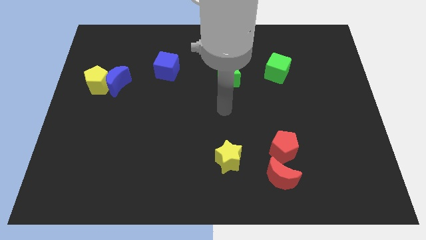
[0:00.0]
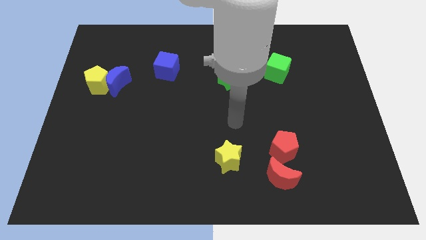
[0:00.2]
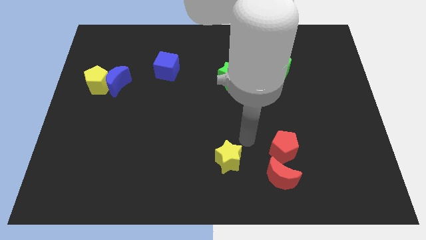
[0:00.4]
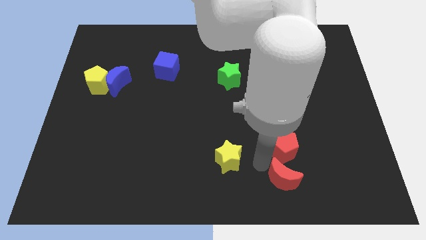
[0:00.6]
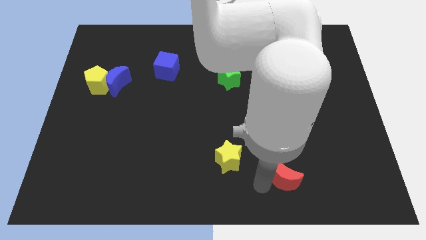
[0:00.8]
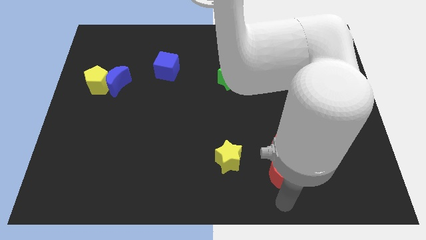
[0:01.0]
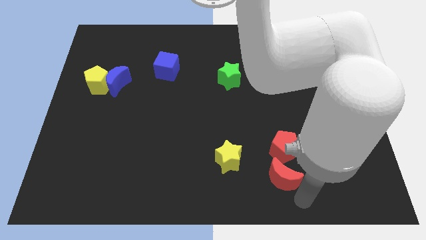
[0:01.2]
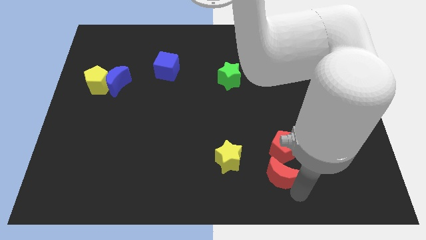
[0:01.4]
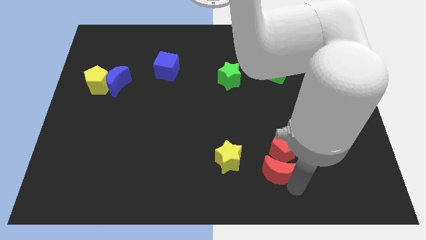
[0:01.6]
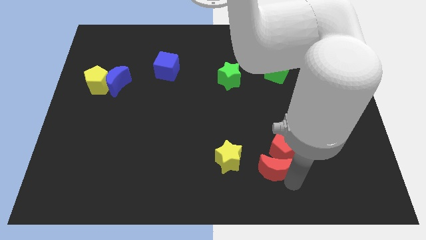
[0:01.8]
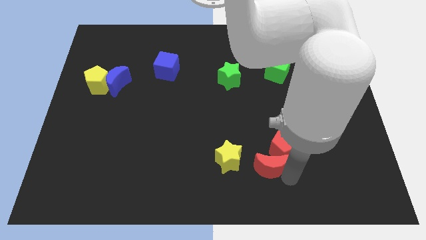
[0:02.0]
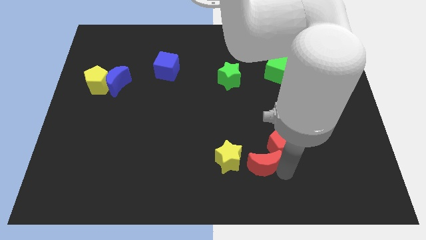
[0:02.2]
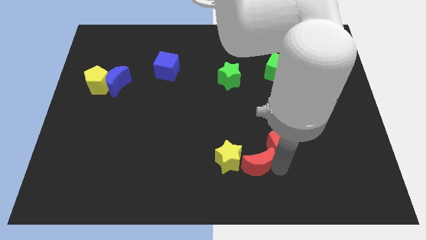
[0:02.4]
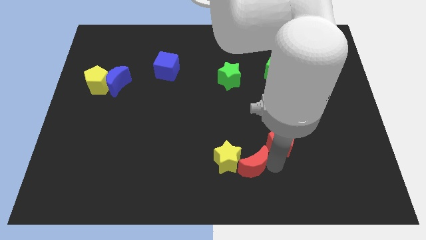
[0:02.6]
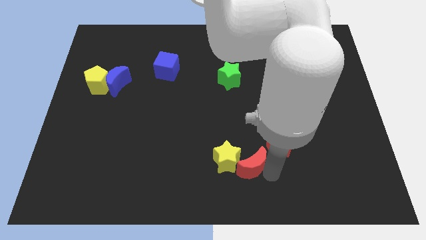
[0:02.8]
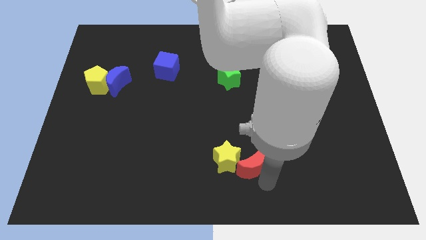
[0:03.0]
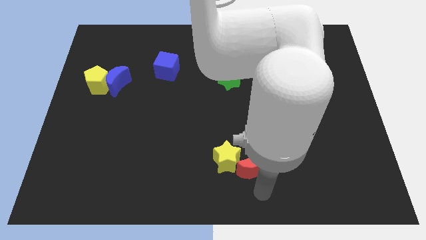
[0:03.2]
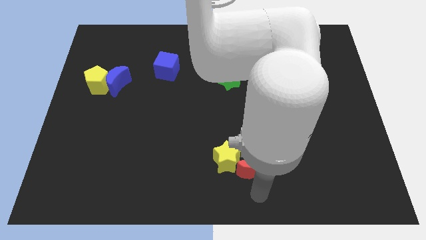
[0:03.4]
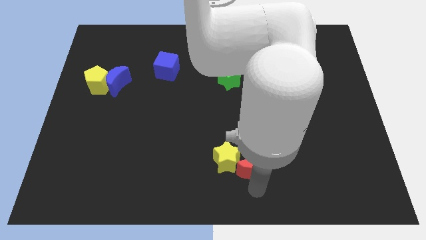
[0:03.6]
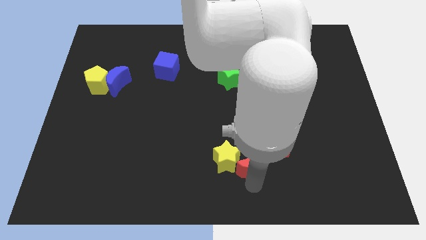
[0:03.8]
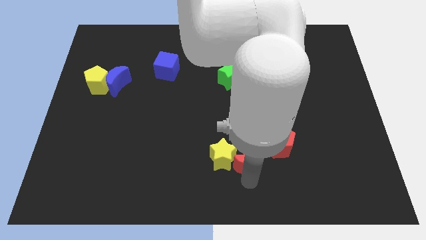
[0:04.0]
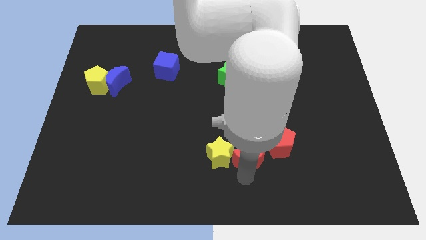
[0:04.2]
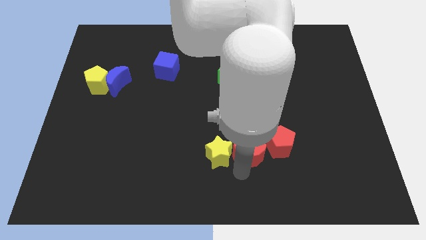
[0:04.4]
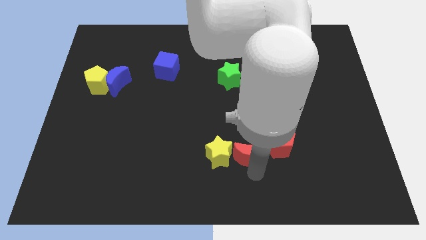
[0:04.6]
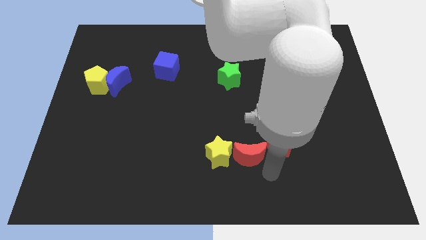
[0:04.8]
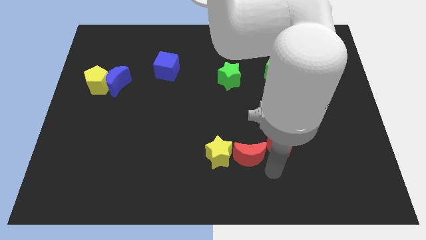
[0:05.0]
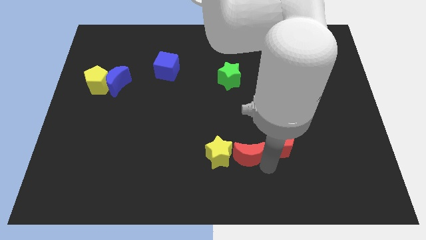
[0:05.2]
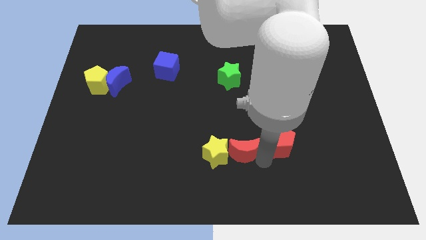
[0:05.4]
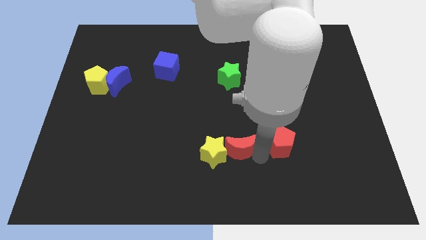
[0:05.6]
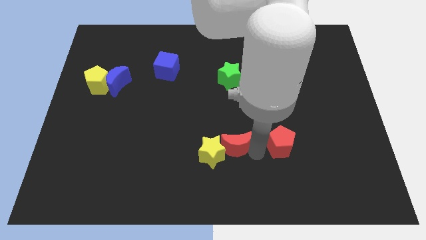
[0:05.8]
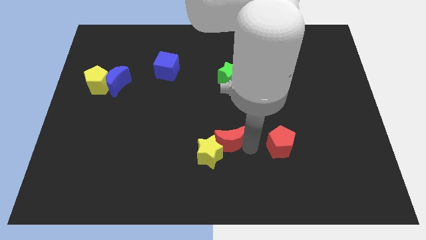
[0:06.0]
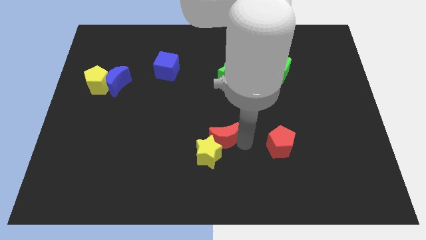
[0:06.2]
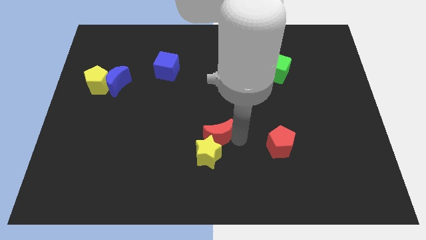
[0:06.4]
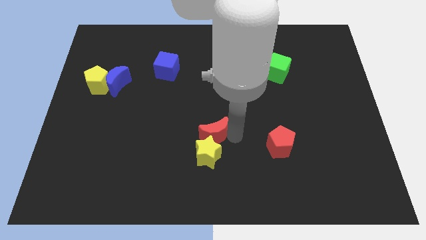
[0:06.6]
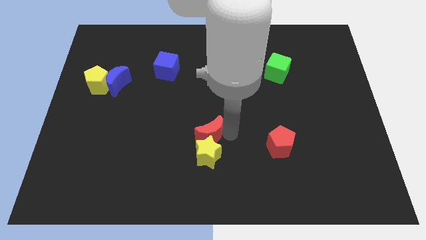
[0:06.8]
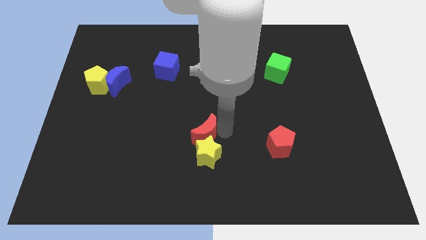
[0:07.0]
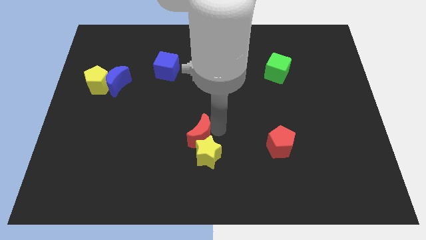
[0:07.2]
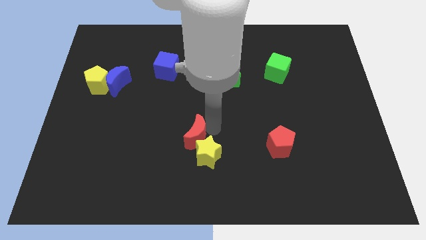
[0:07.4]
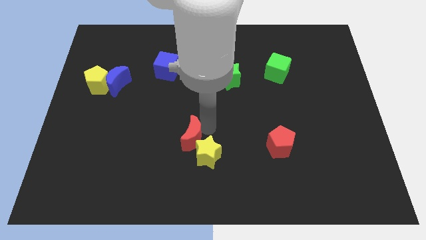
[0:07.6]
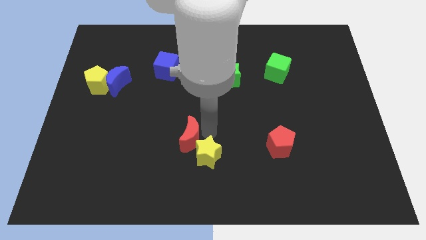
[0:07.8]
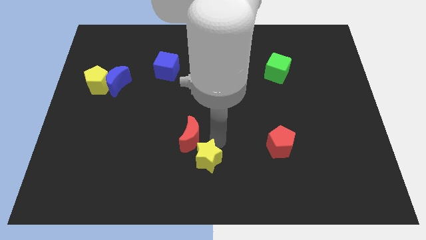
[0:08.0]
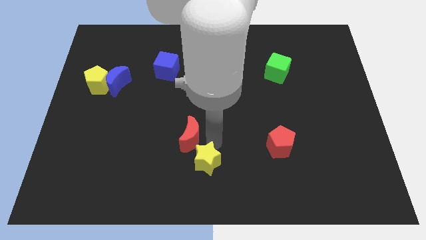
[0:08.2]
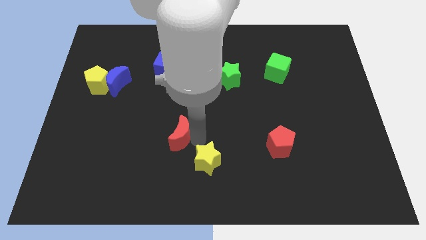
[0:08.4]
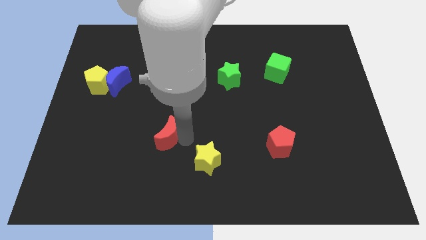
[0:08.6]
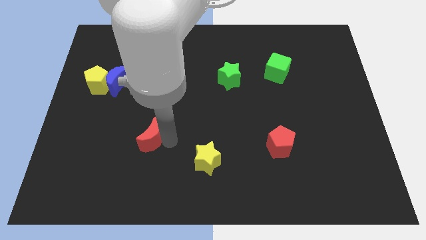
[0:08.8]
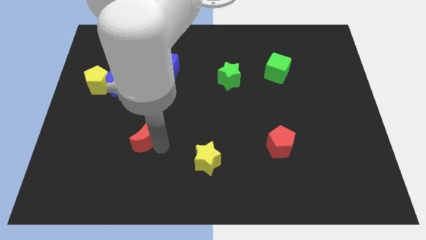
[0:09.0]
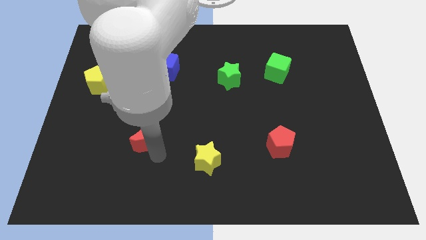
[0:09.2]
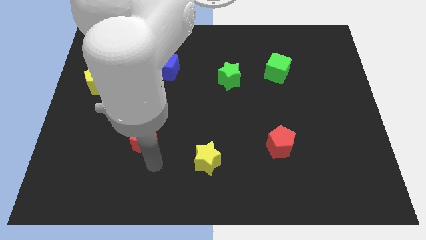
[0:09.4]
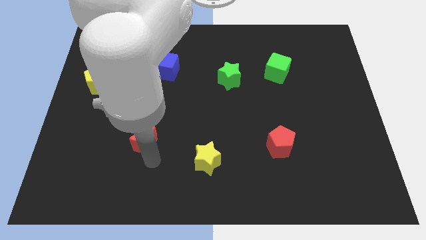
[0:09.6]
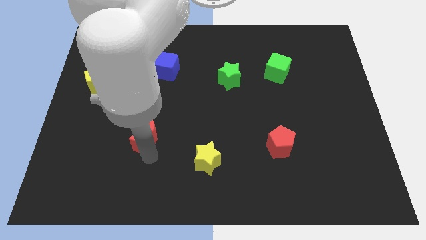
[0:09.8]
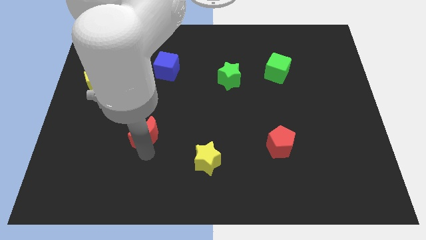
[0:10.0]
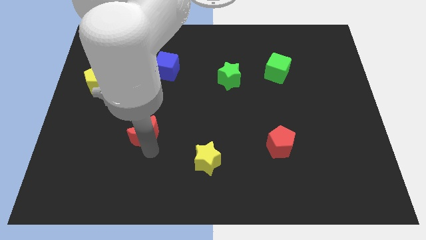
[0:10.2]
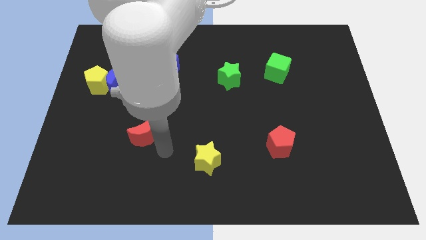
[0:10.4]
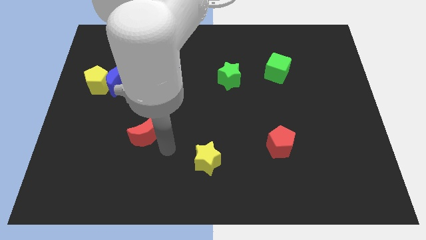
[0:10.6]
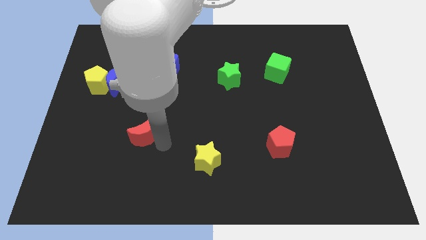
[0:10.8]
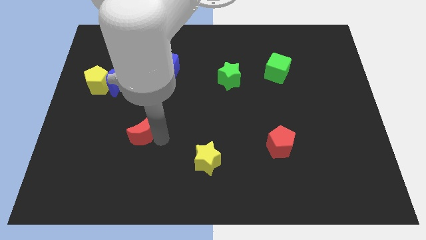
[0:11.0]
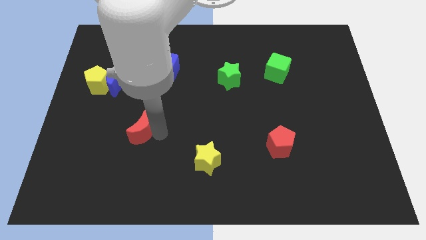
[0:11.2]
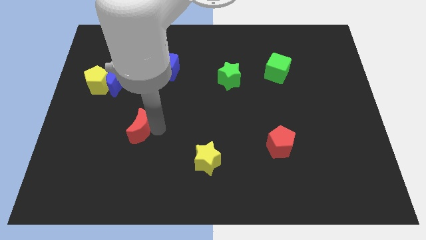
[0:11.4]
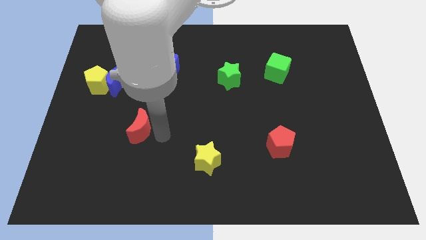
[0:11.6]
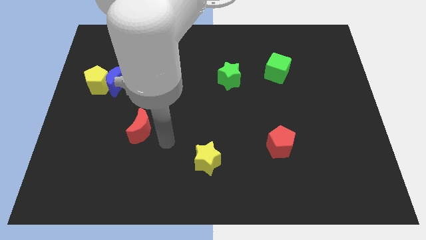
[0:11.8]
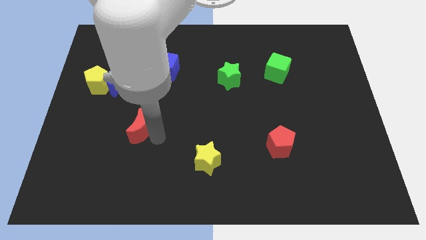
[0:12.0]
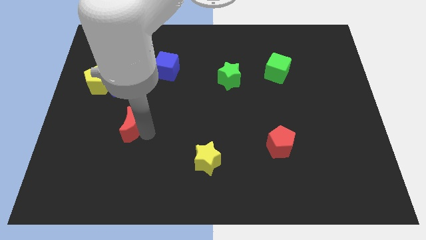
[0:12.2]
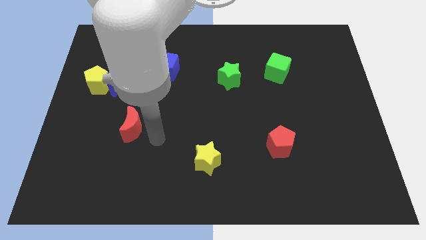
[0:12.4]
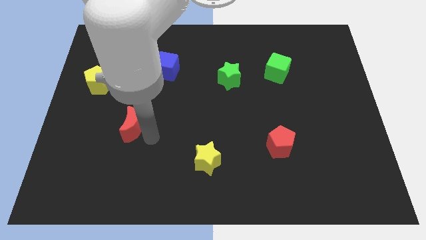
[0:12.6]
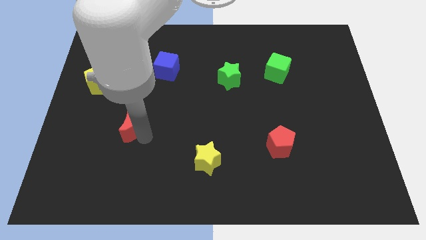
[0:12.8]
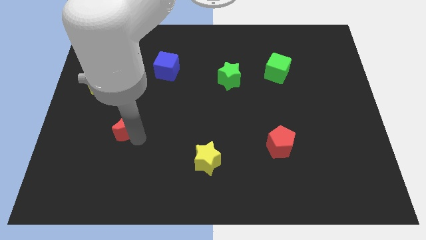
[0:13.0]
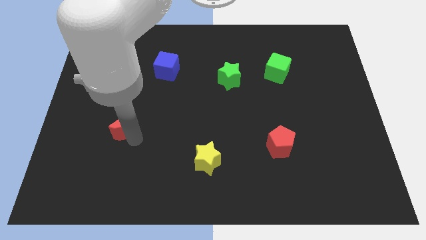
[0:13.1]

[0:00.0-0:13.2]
push the red moon below the blue moon
